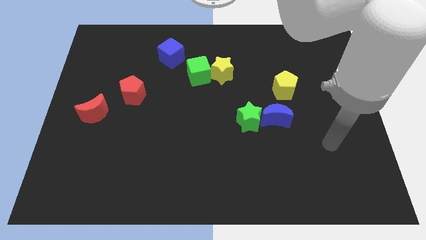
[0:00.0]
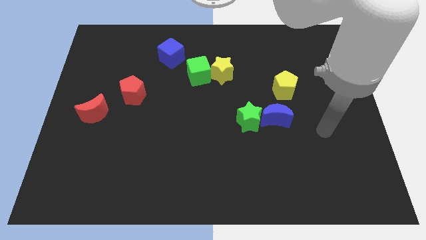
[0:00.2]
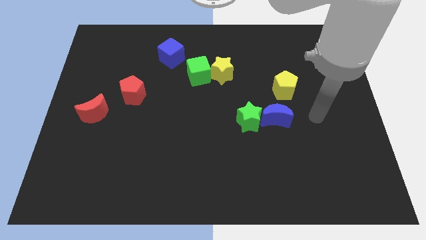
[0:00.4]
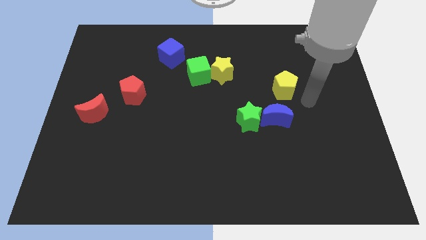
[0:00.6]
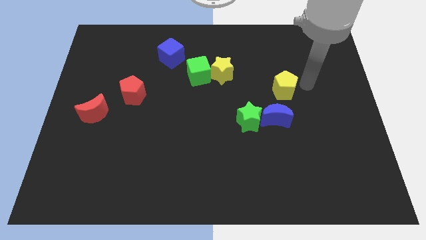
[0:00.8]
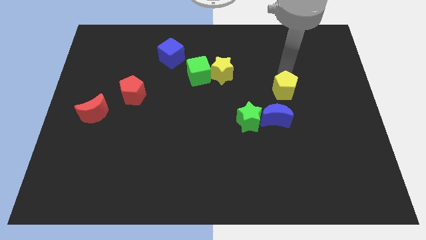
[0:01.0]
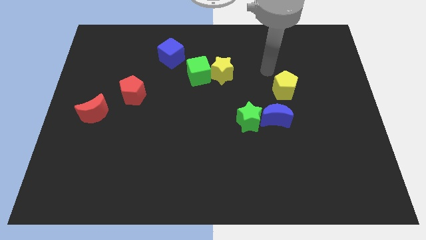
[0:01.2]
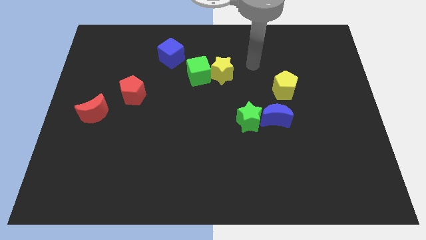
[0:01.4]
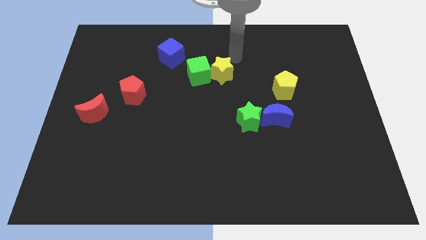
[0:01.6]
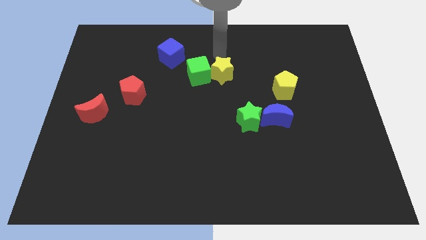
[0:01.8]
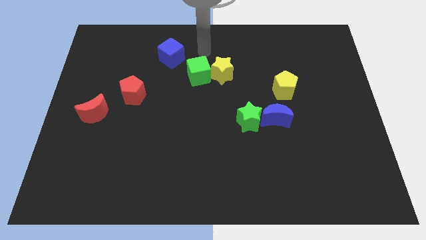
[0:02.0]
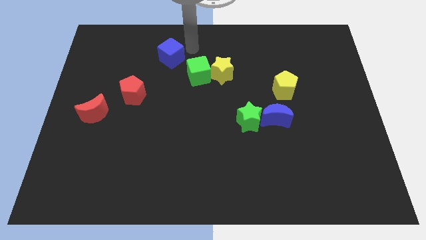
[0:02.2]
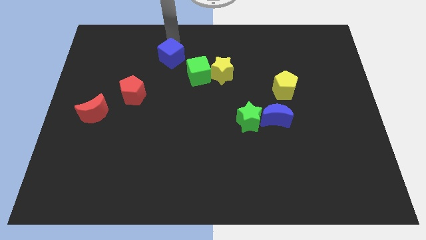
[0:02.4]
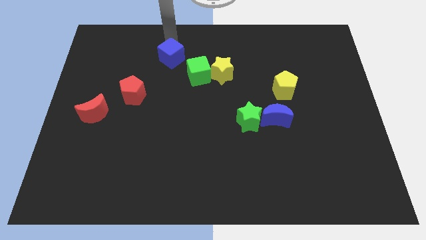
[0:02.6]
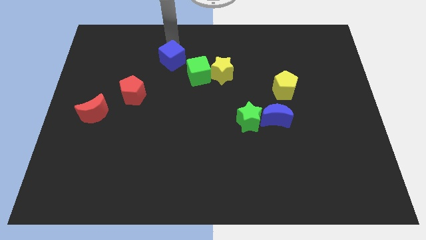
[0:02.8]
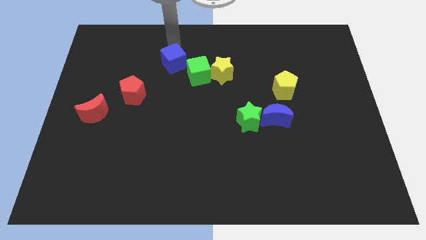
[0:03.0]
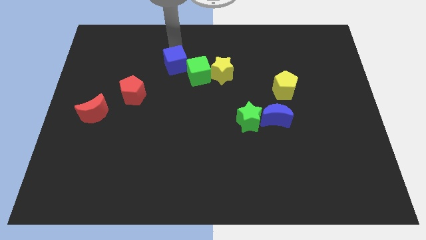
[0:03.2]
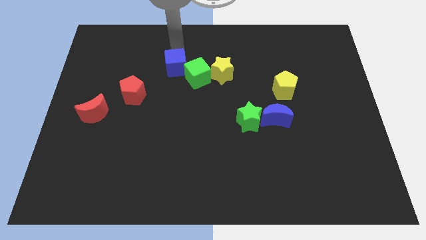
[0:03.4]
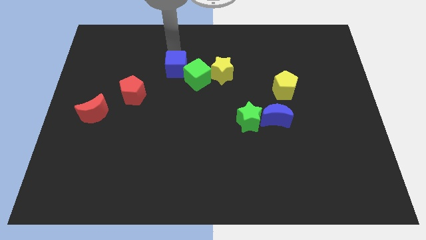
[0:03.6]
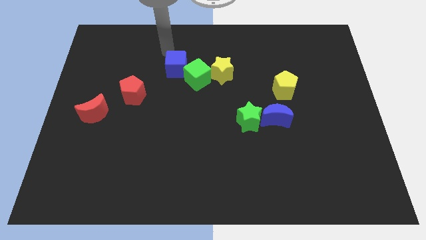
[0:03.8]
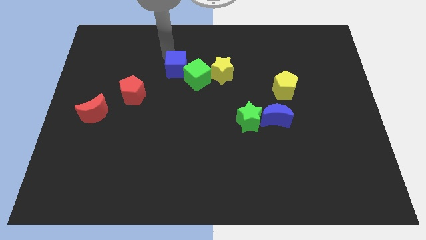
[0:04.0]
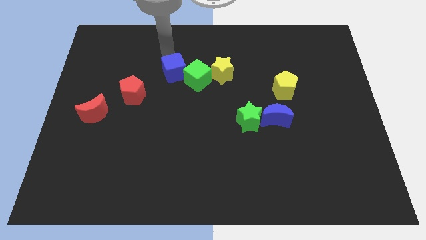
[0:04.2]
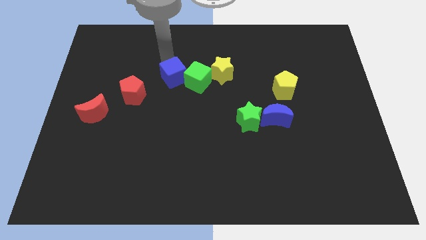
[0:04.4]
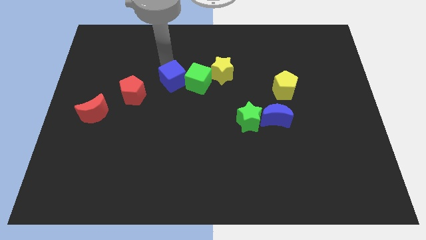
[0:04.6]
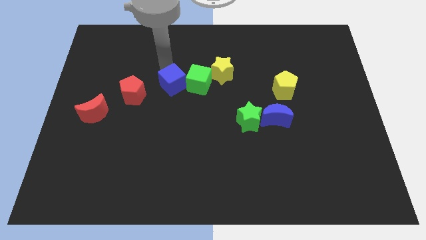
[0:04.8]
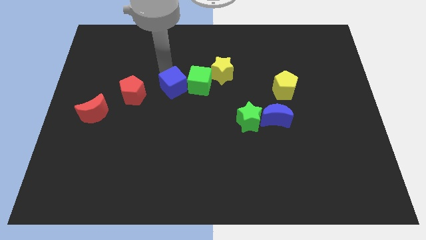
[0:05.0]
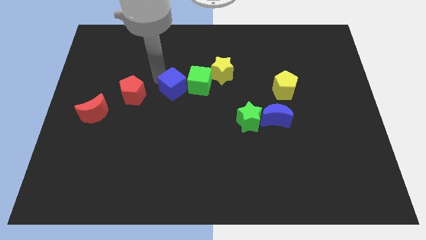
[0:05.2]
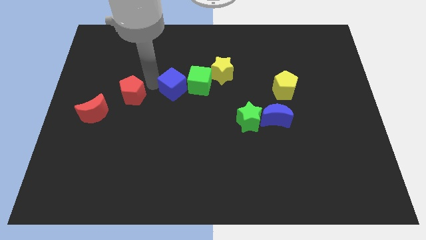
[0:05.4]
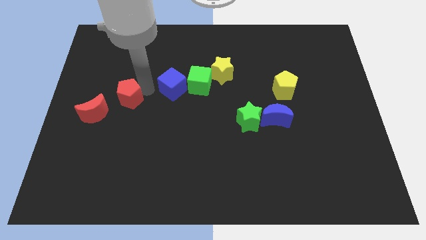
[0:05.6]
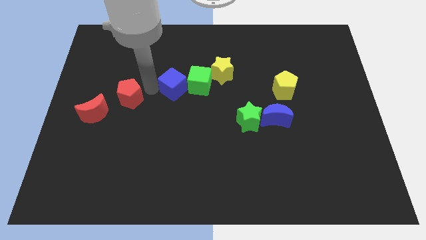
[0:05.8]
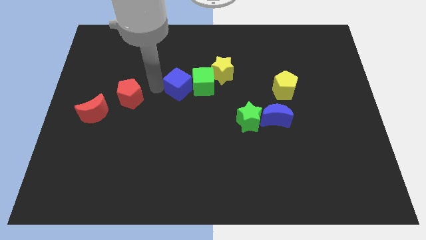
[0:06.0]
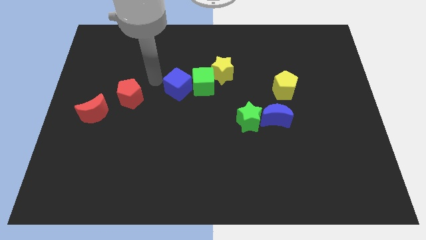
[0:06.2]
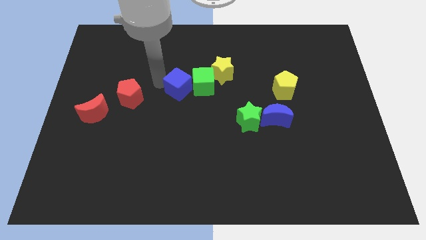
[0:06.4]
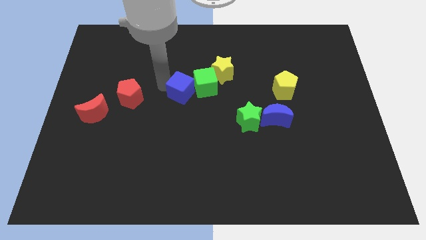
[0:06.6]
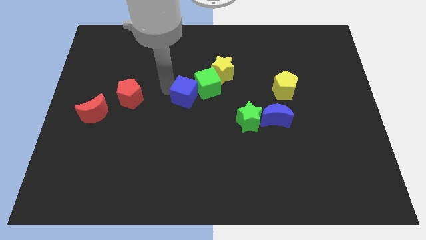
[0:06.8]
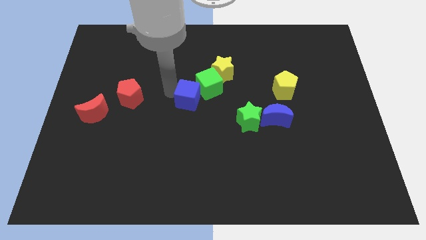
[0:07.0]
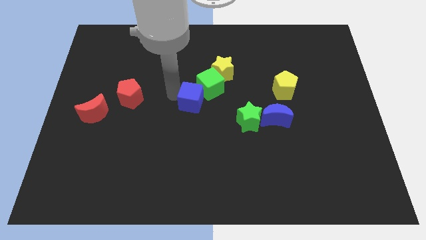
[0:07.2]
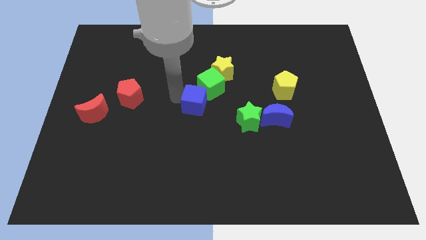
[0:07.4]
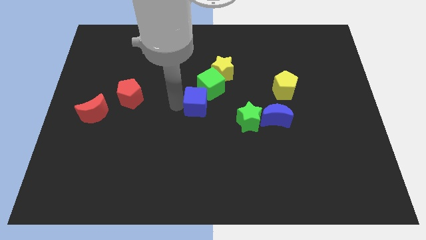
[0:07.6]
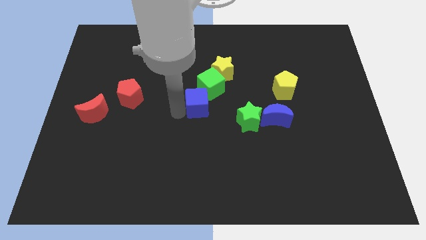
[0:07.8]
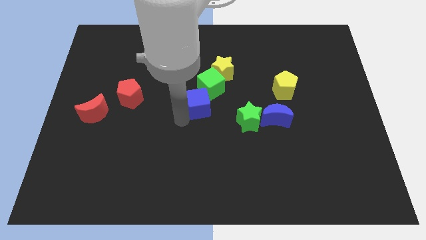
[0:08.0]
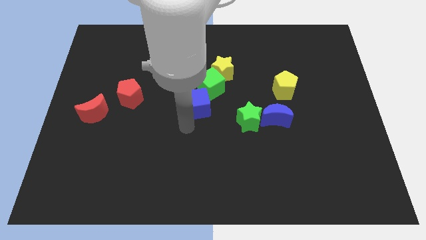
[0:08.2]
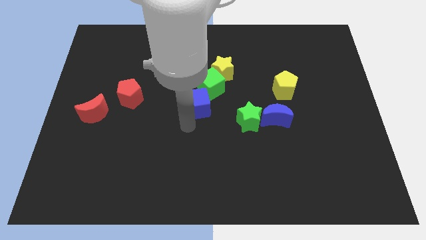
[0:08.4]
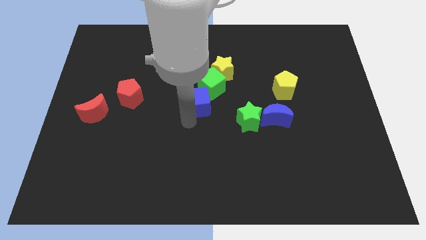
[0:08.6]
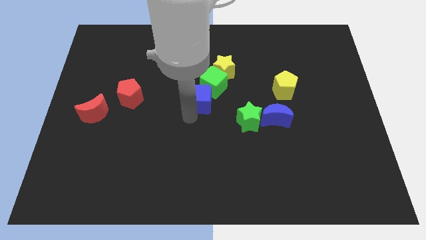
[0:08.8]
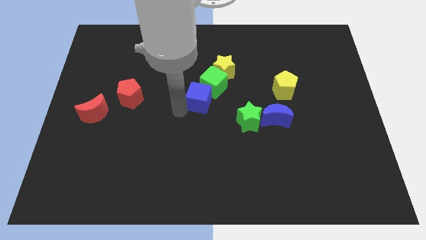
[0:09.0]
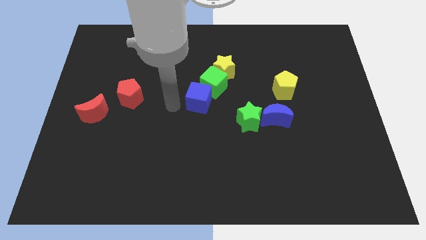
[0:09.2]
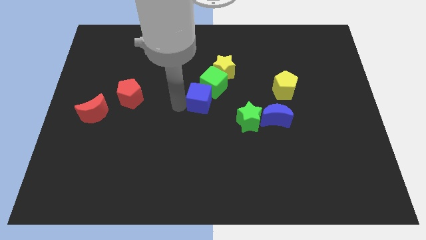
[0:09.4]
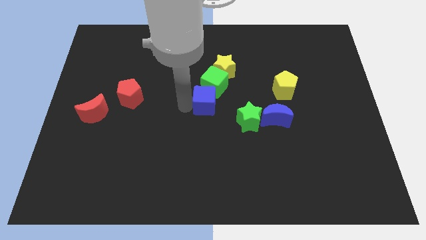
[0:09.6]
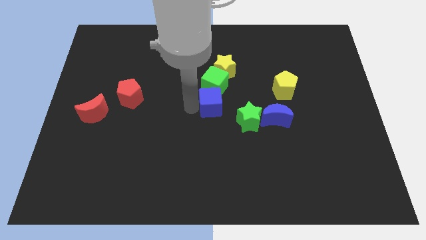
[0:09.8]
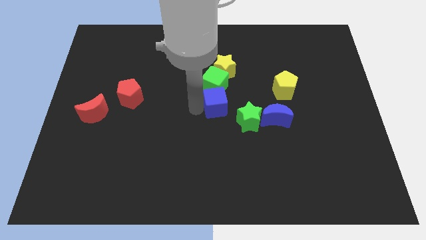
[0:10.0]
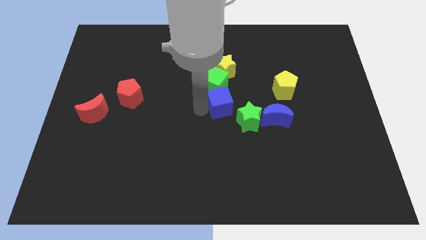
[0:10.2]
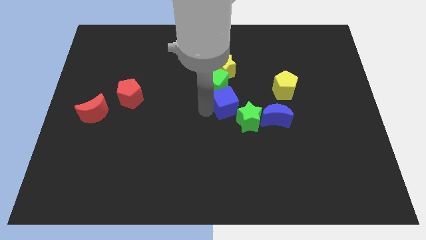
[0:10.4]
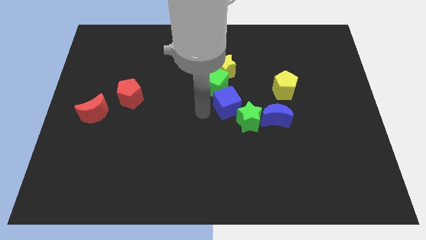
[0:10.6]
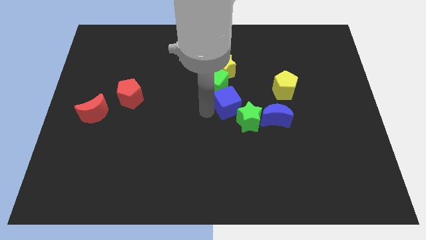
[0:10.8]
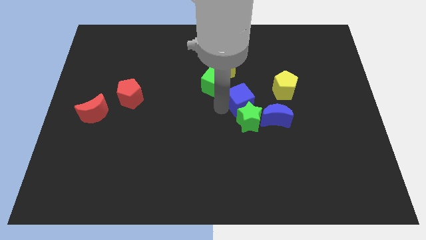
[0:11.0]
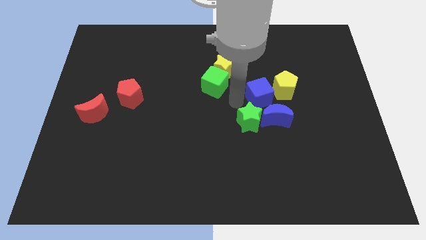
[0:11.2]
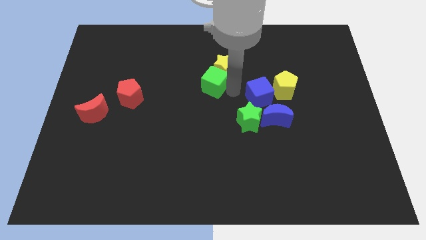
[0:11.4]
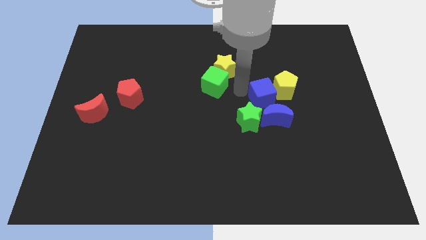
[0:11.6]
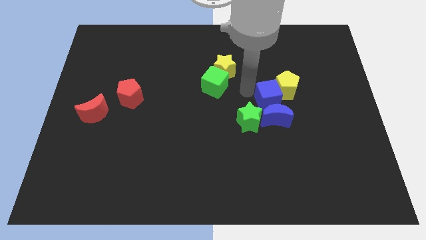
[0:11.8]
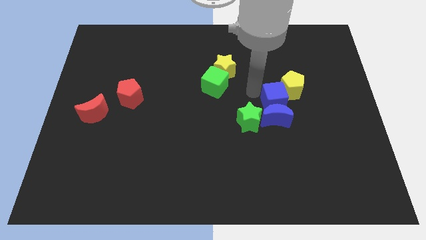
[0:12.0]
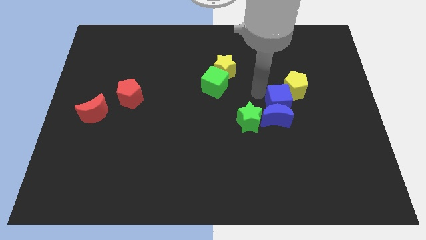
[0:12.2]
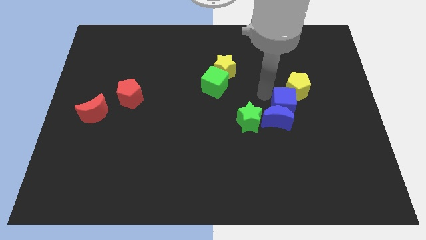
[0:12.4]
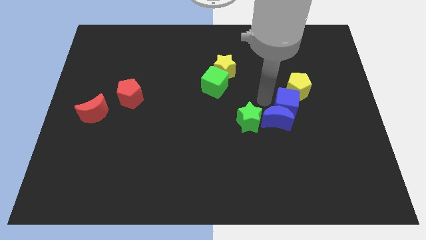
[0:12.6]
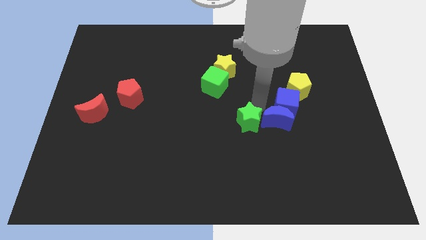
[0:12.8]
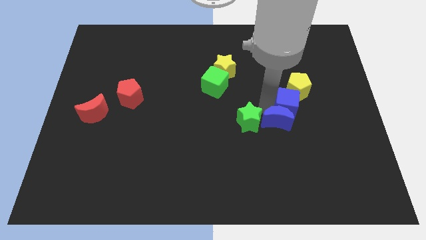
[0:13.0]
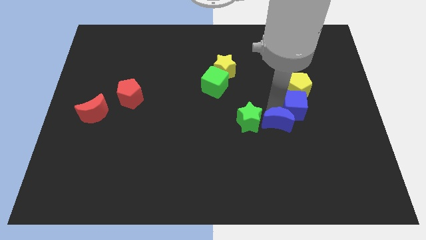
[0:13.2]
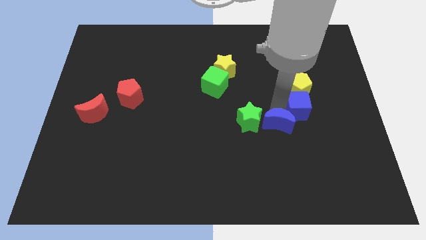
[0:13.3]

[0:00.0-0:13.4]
put the blue cube to the bottom right of the yellow pentagon
